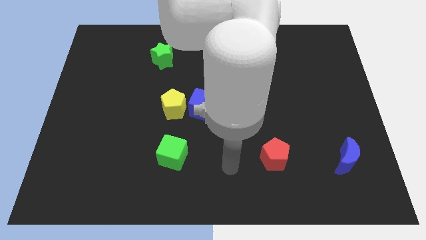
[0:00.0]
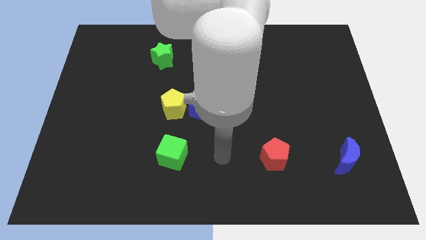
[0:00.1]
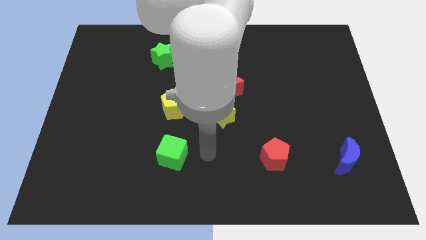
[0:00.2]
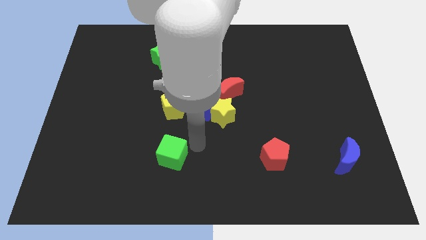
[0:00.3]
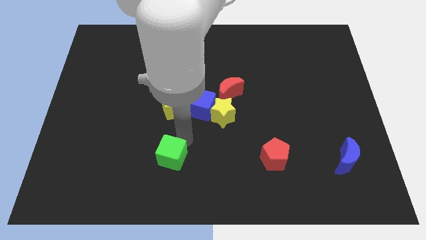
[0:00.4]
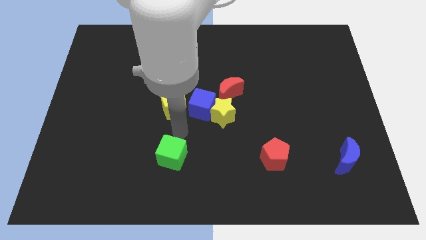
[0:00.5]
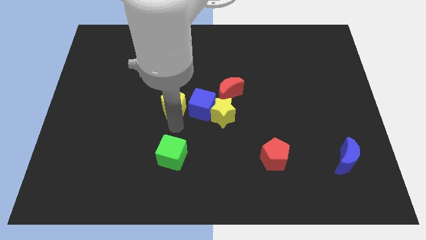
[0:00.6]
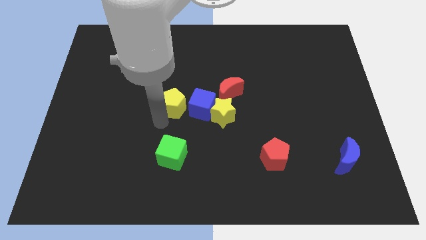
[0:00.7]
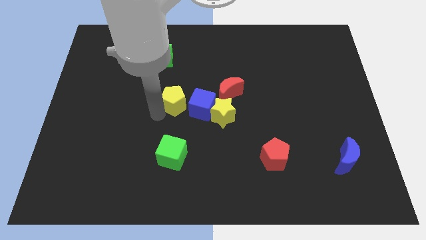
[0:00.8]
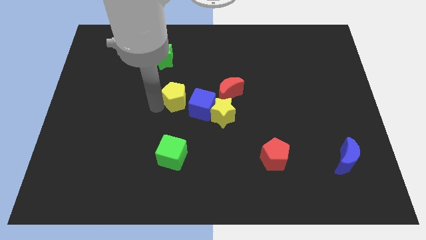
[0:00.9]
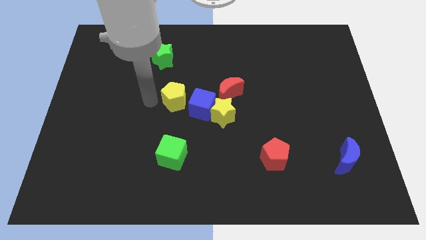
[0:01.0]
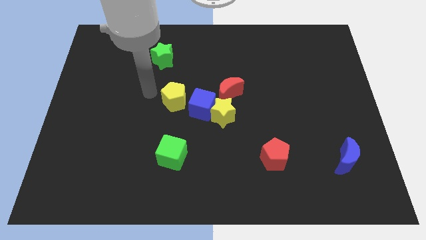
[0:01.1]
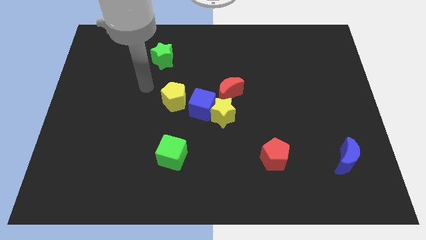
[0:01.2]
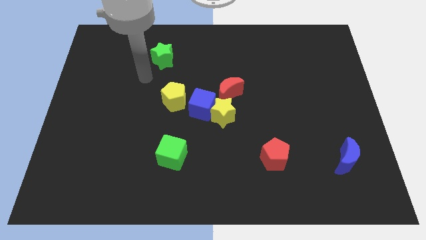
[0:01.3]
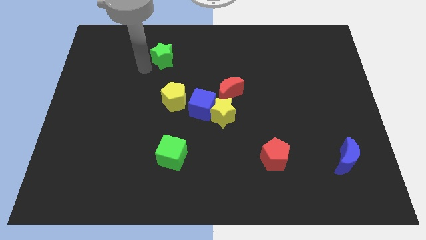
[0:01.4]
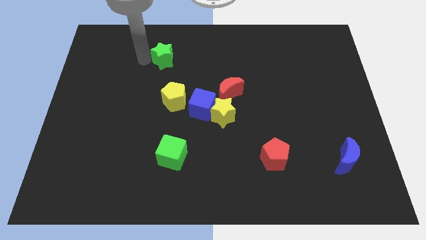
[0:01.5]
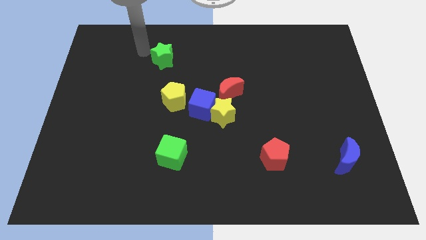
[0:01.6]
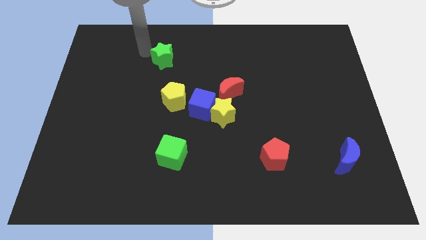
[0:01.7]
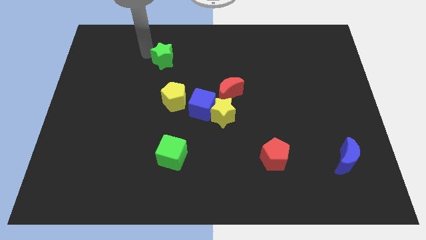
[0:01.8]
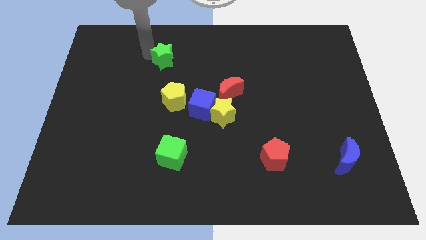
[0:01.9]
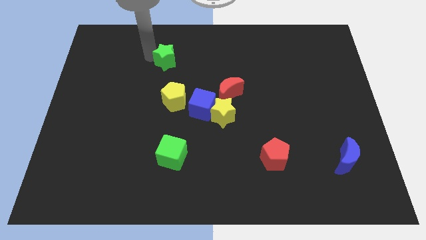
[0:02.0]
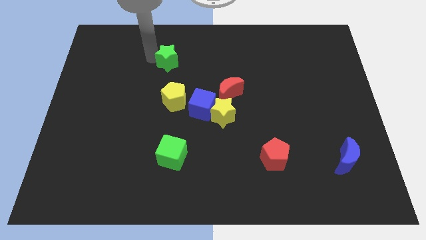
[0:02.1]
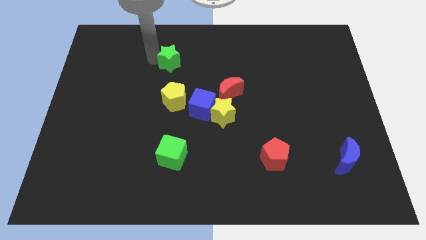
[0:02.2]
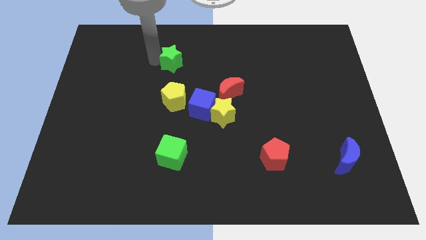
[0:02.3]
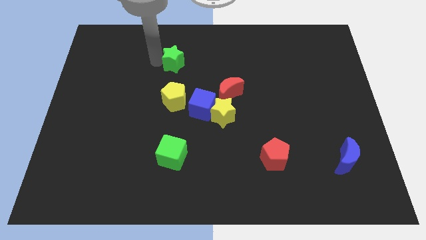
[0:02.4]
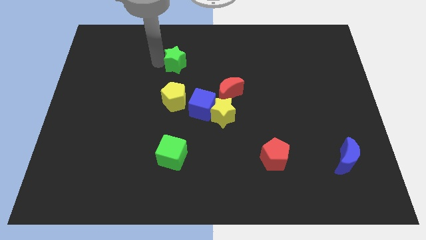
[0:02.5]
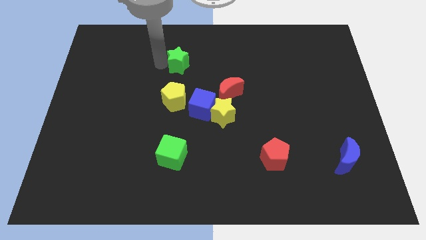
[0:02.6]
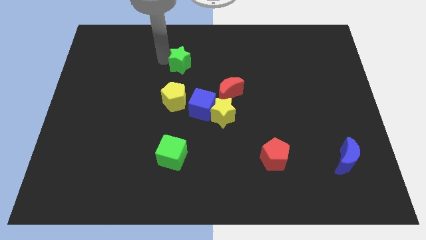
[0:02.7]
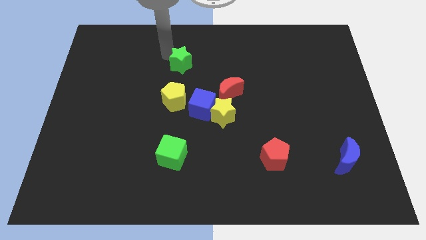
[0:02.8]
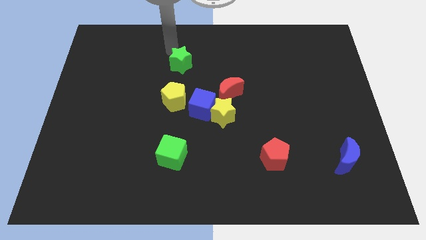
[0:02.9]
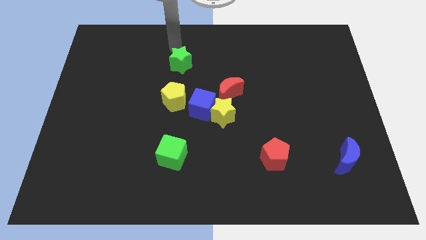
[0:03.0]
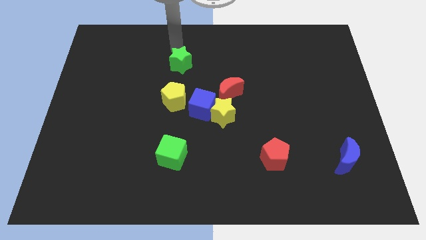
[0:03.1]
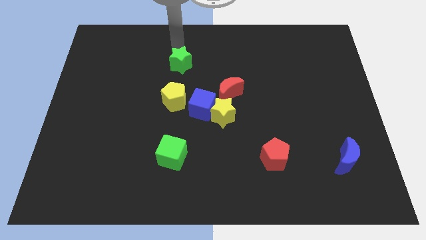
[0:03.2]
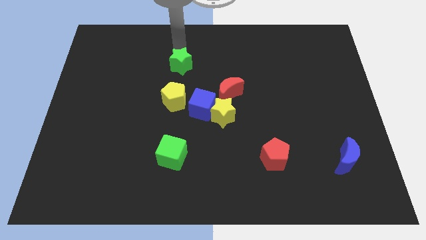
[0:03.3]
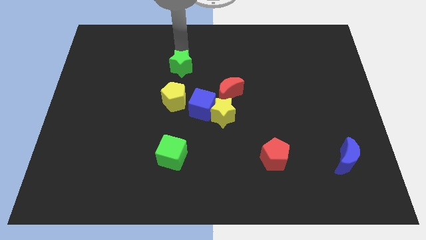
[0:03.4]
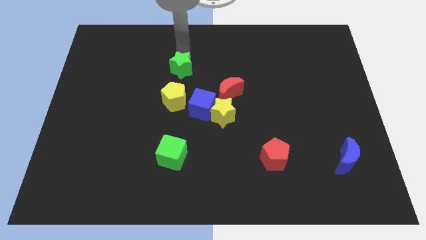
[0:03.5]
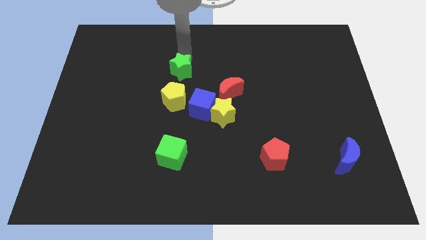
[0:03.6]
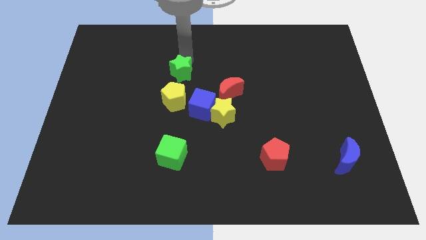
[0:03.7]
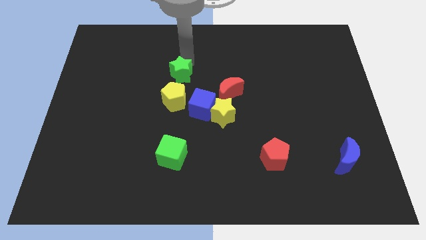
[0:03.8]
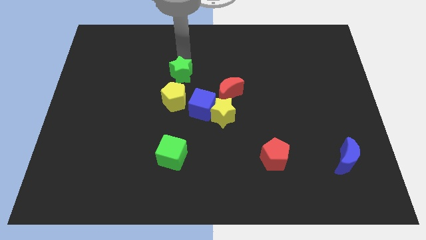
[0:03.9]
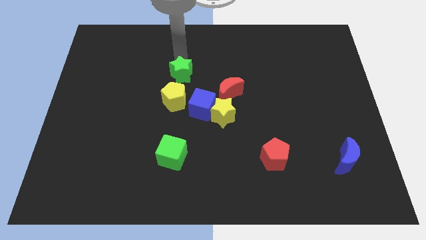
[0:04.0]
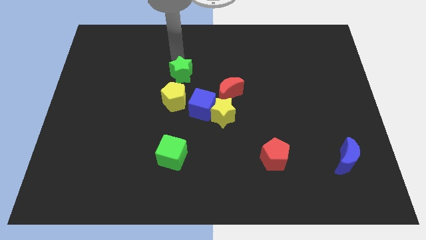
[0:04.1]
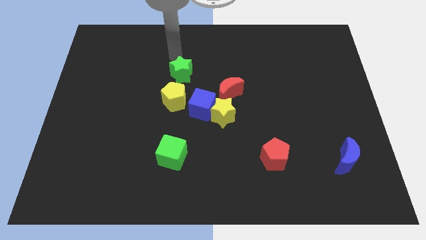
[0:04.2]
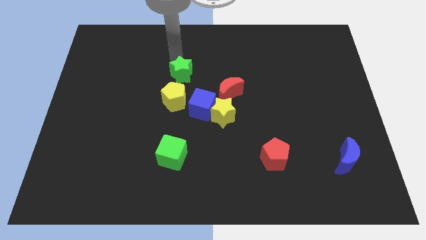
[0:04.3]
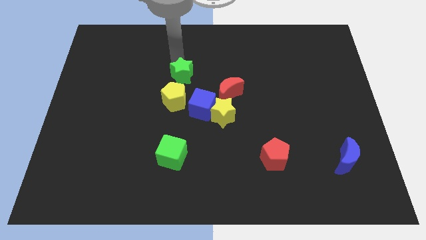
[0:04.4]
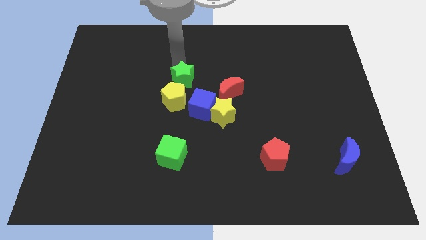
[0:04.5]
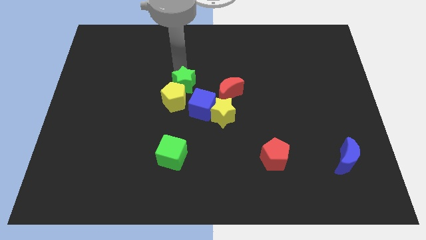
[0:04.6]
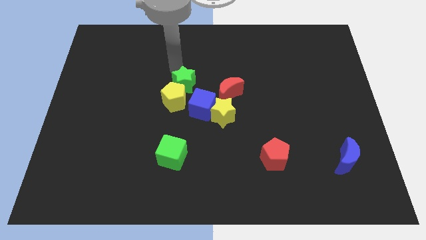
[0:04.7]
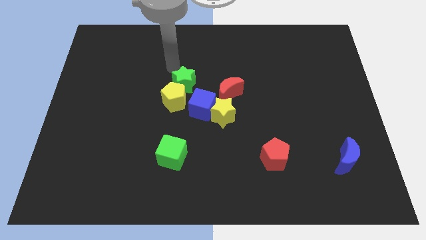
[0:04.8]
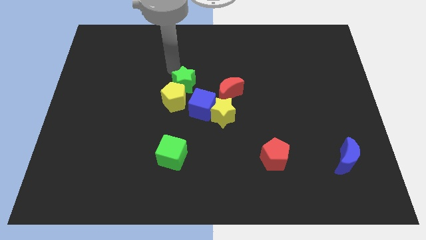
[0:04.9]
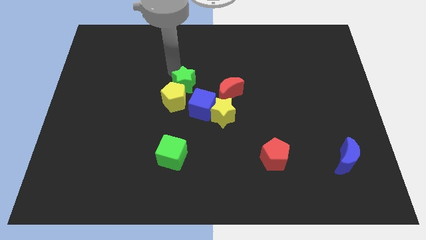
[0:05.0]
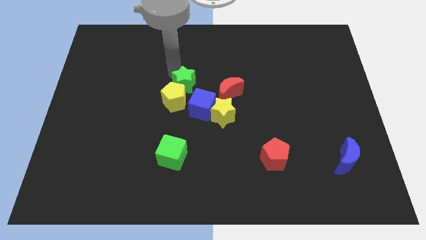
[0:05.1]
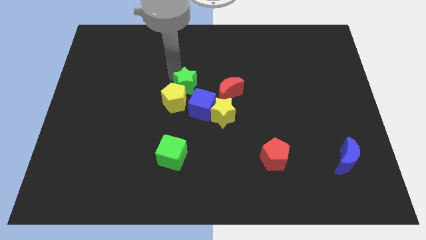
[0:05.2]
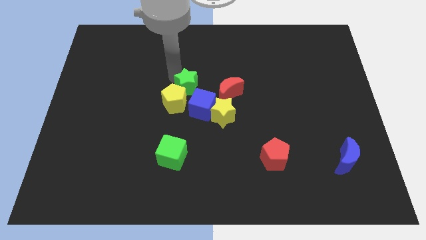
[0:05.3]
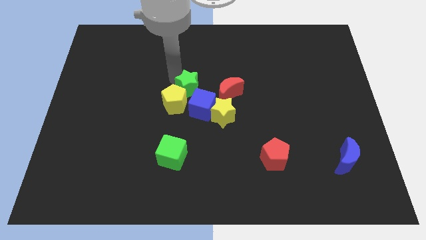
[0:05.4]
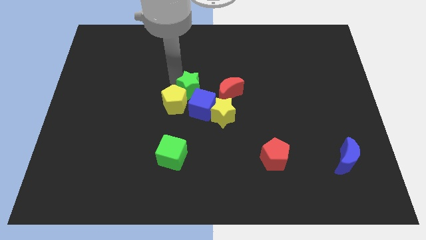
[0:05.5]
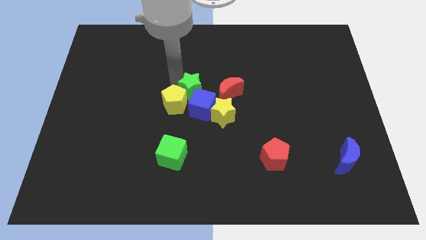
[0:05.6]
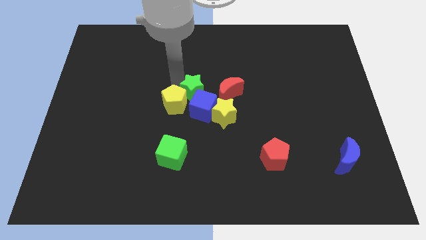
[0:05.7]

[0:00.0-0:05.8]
slide the green star next to the blue cube

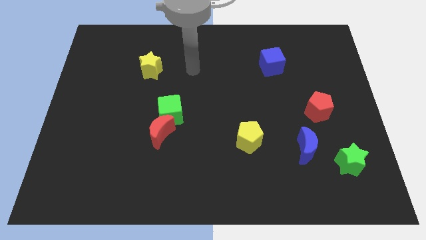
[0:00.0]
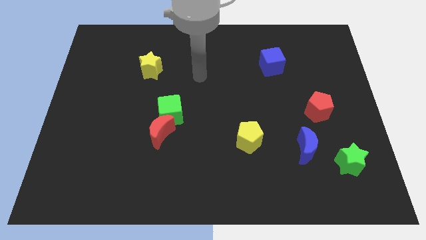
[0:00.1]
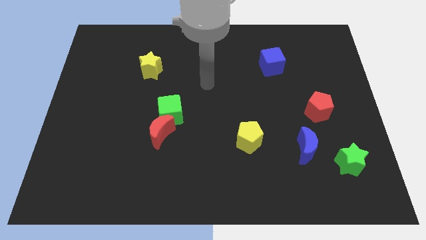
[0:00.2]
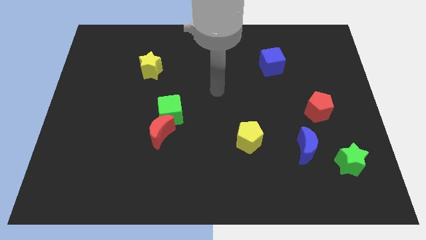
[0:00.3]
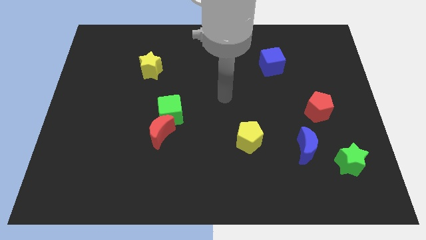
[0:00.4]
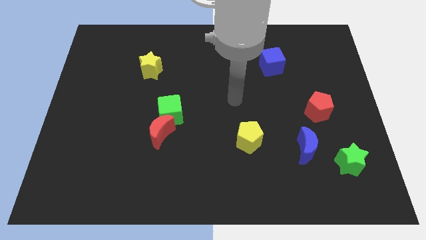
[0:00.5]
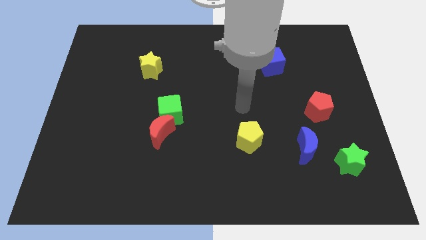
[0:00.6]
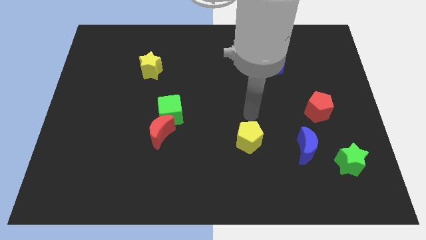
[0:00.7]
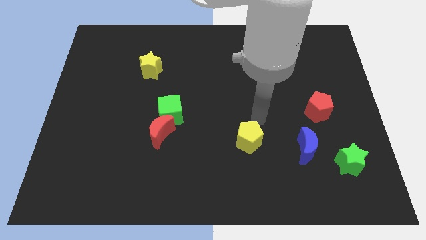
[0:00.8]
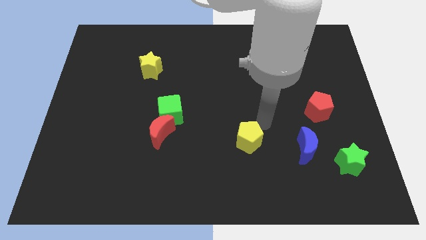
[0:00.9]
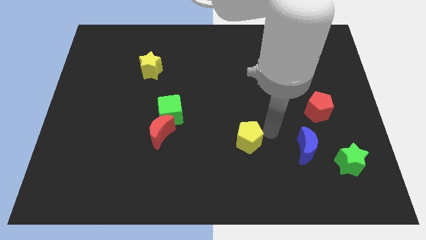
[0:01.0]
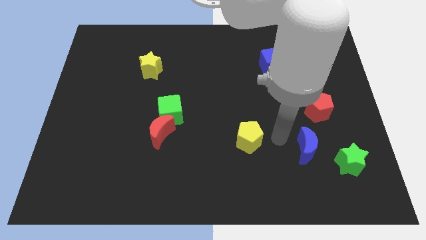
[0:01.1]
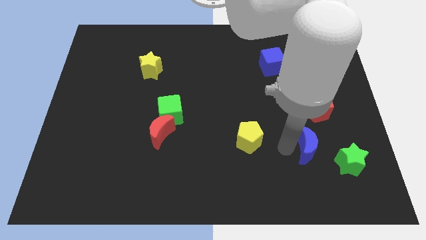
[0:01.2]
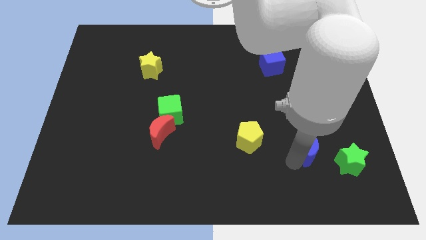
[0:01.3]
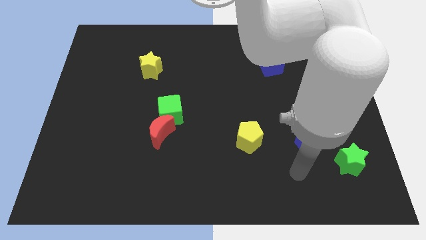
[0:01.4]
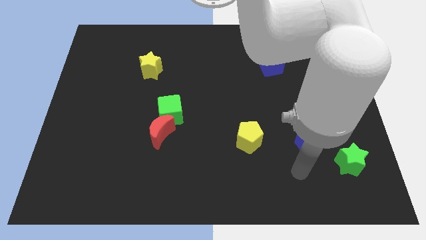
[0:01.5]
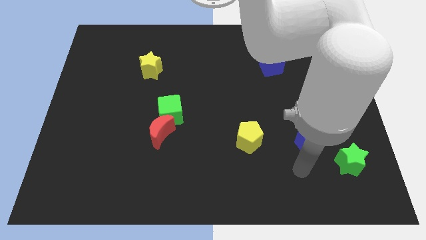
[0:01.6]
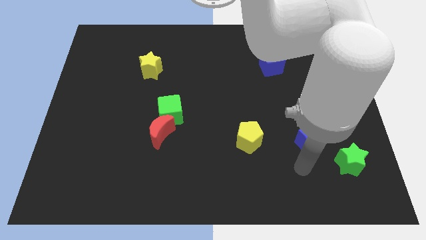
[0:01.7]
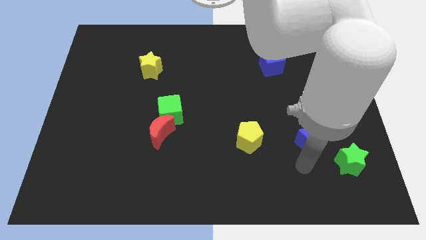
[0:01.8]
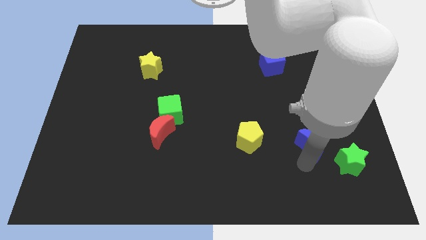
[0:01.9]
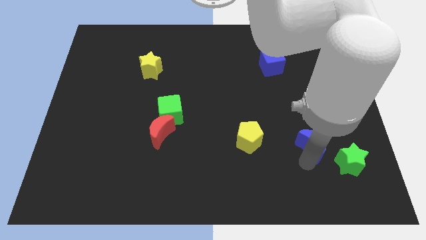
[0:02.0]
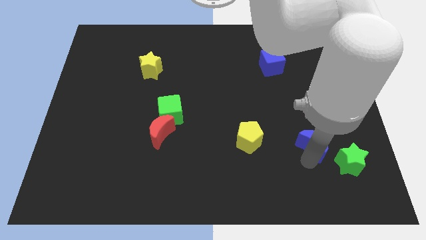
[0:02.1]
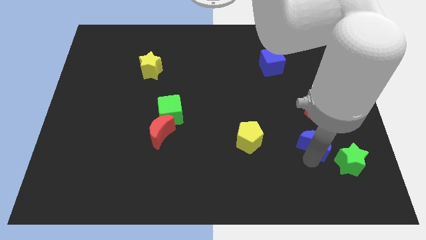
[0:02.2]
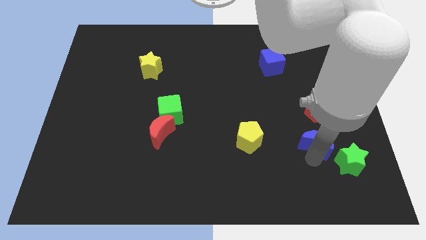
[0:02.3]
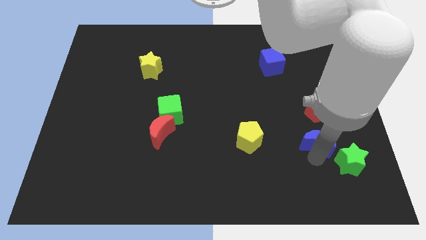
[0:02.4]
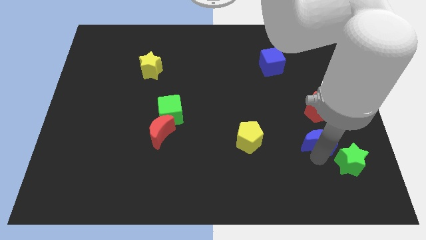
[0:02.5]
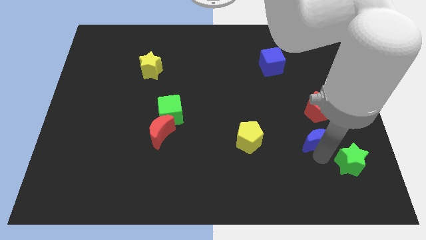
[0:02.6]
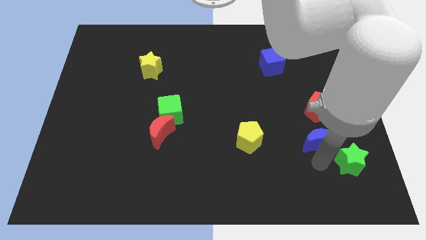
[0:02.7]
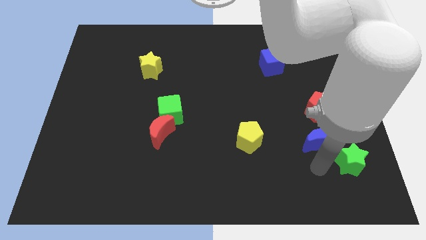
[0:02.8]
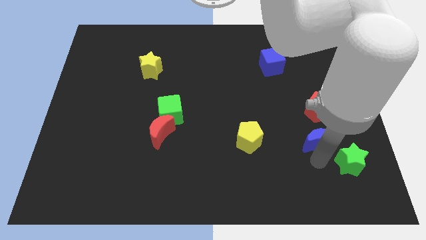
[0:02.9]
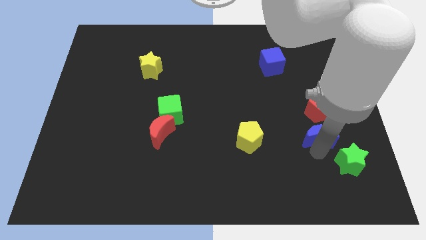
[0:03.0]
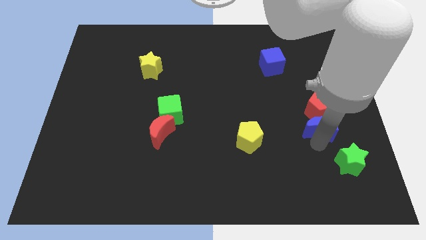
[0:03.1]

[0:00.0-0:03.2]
push the blue moon towards the red pentagon
